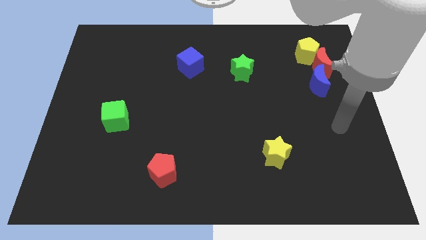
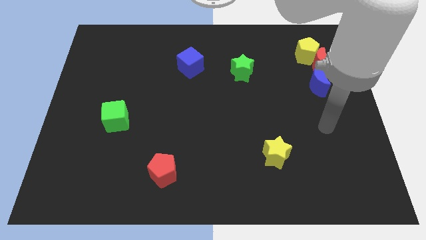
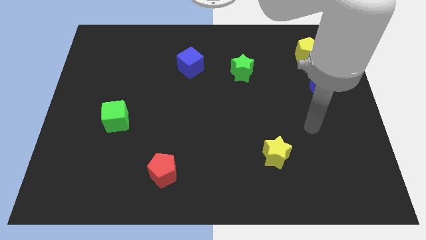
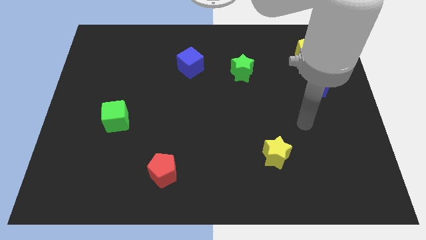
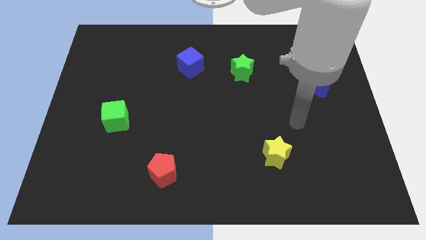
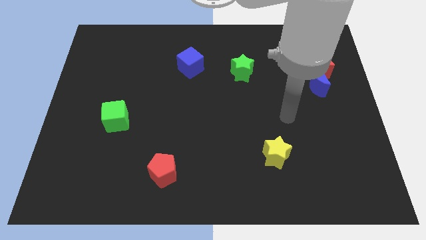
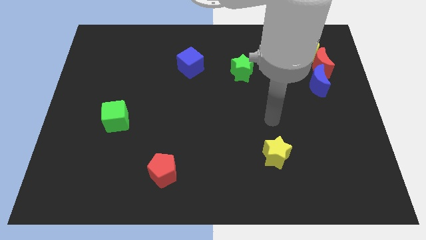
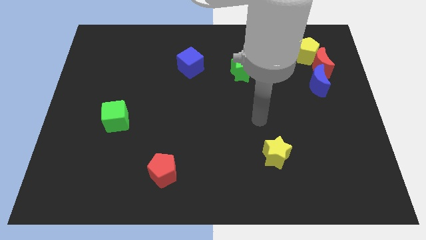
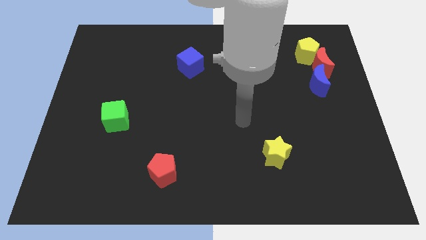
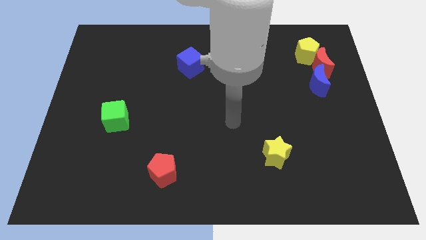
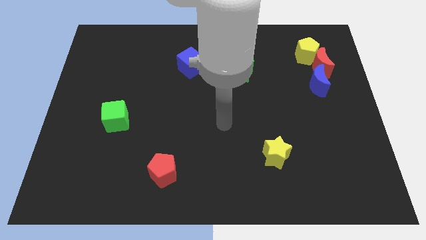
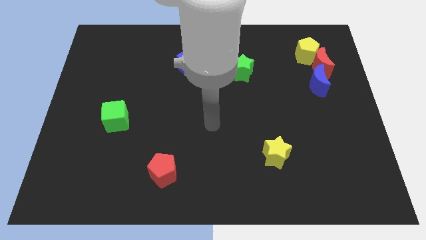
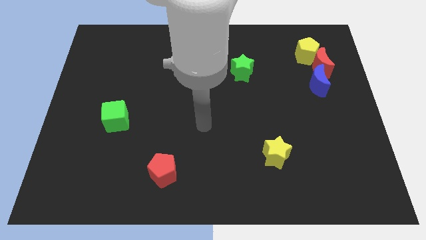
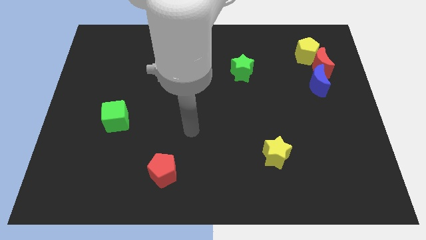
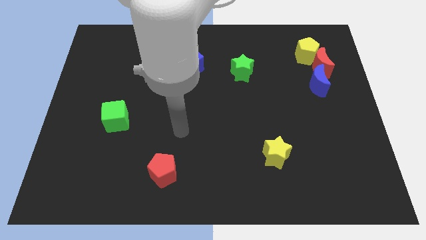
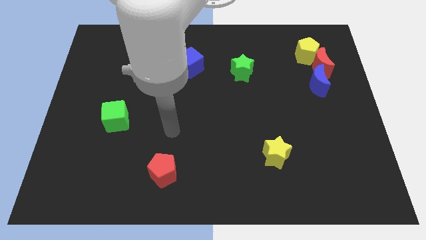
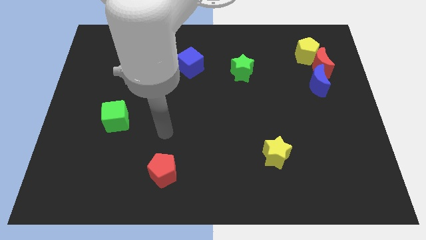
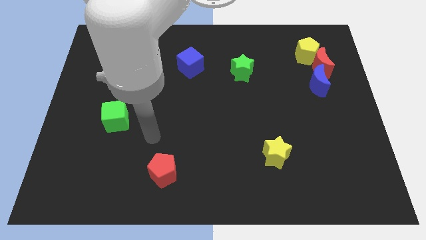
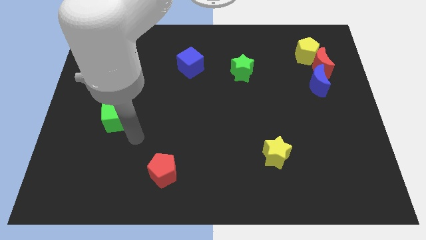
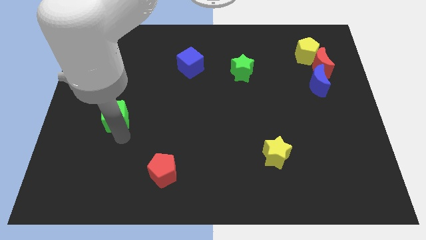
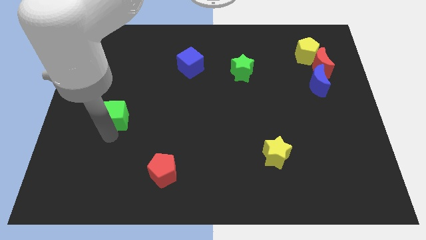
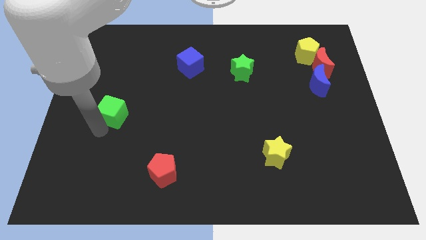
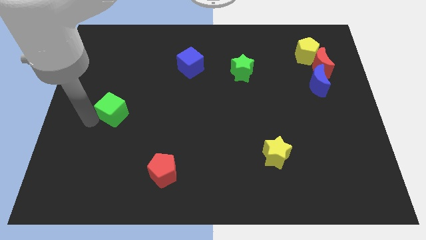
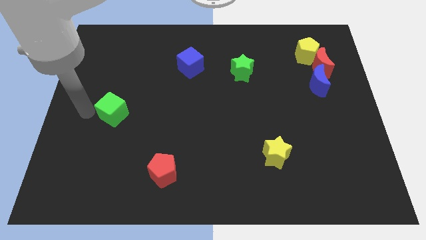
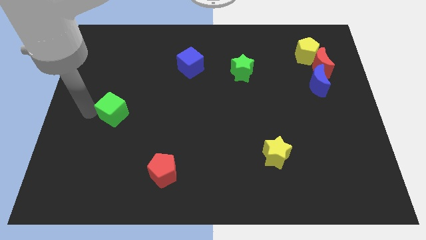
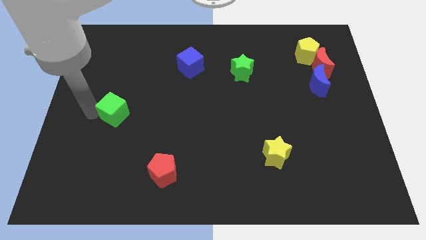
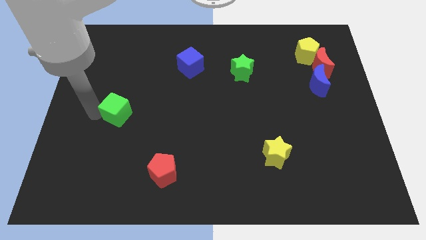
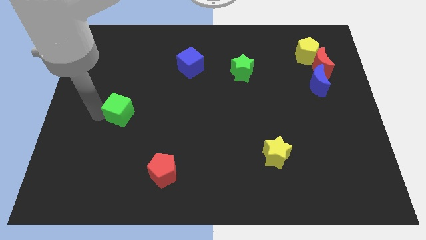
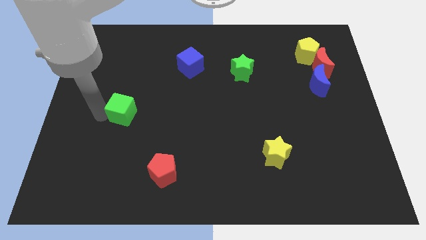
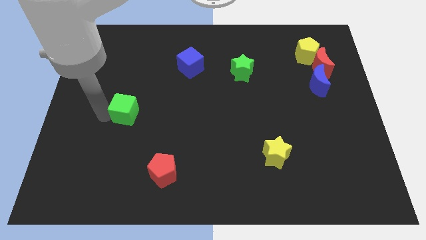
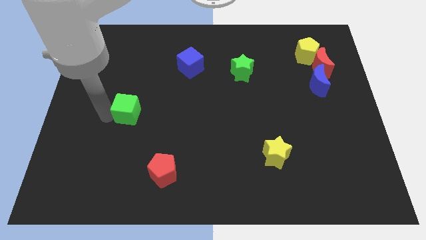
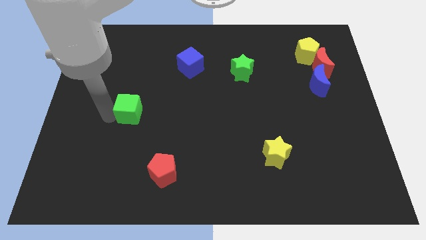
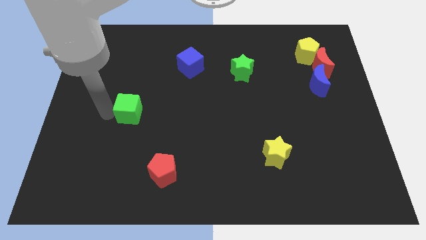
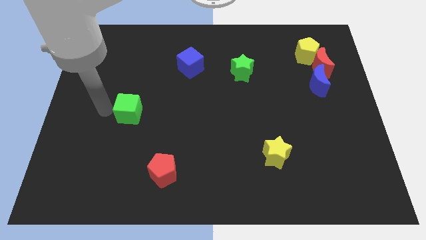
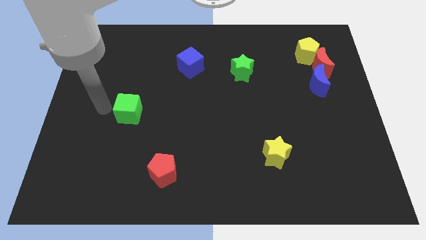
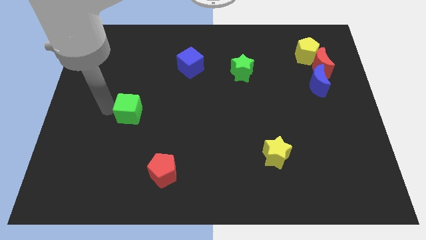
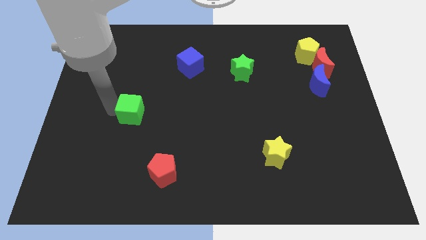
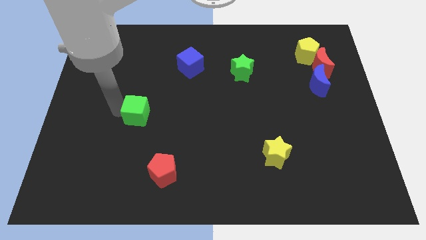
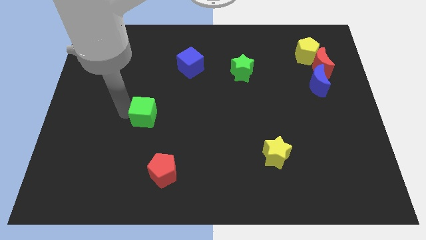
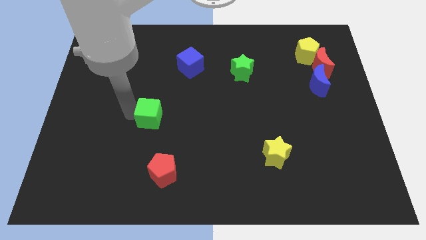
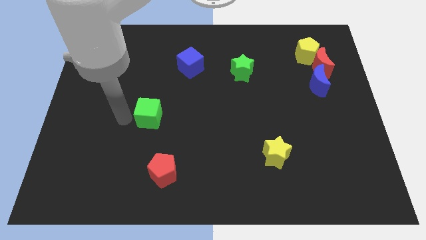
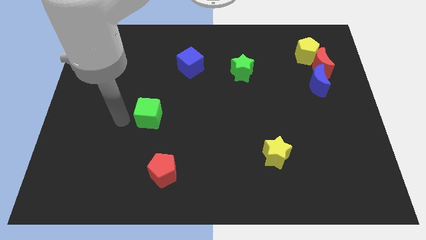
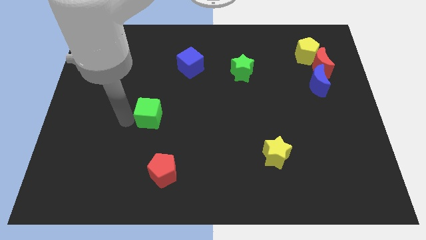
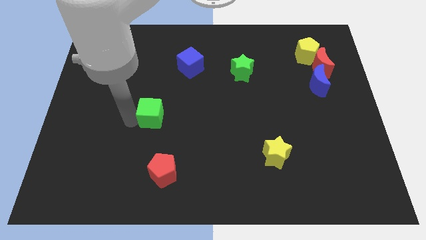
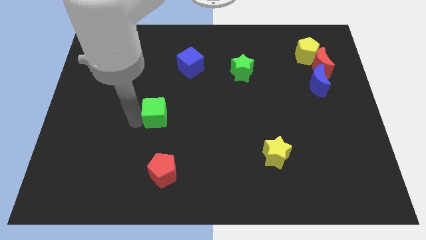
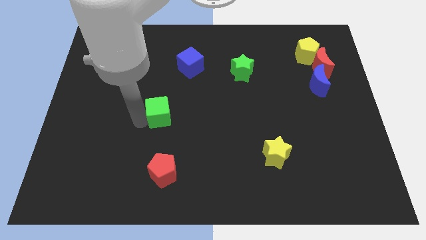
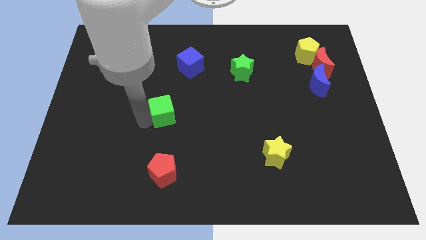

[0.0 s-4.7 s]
slide the green cube to the center of the board

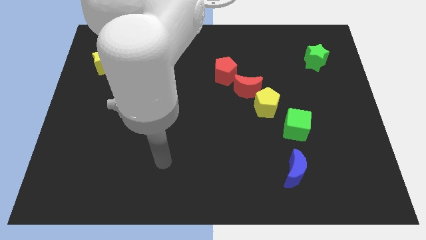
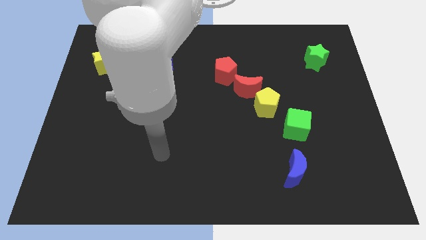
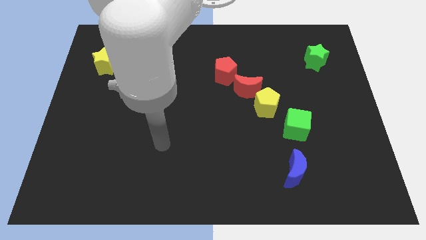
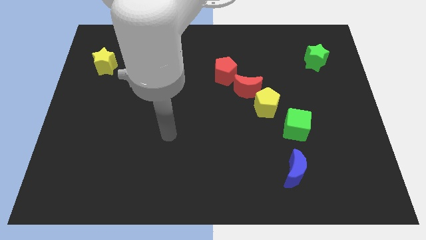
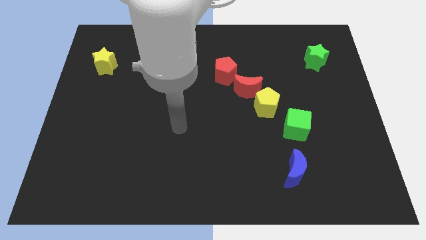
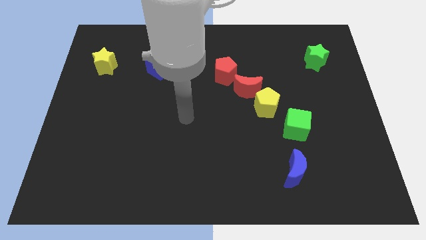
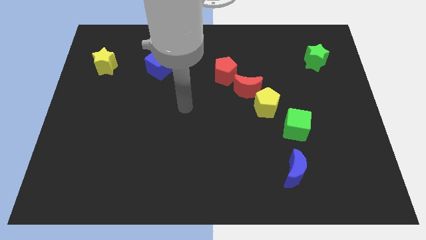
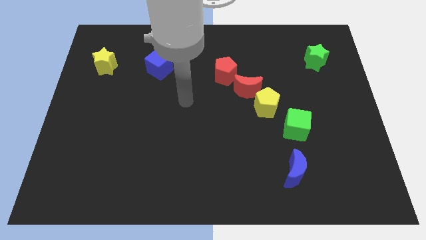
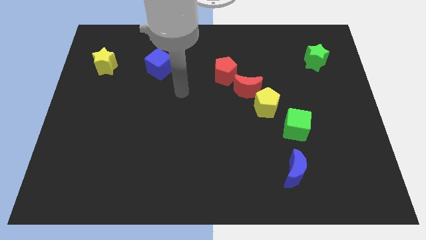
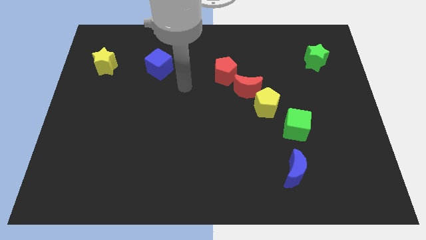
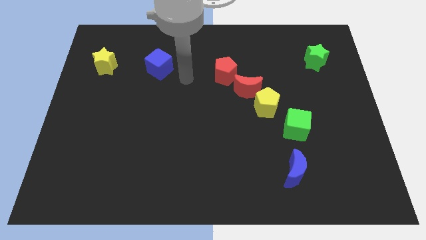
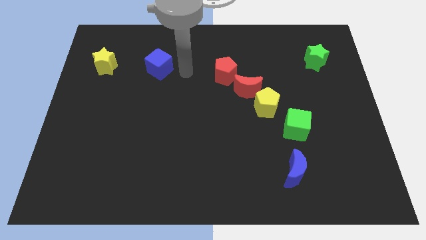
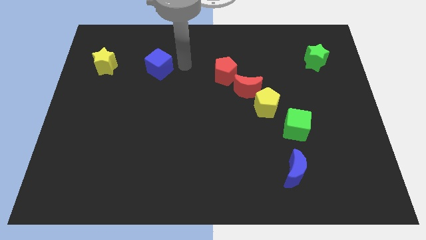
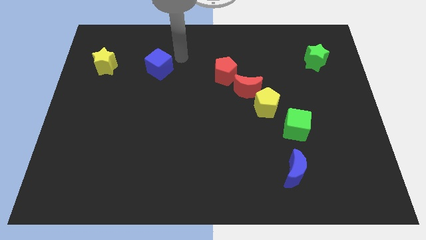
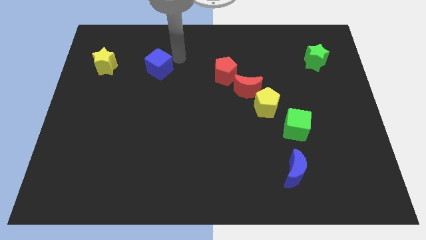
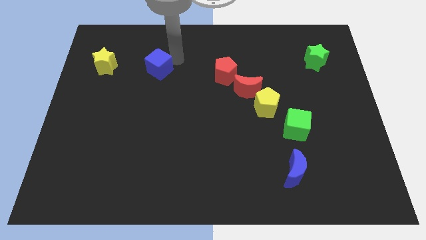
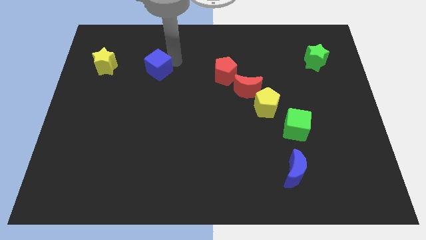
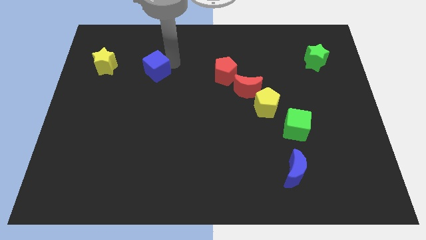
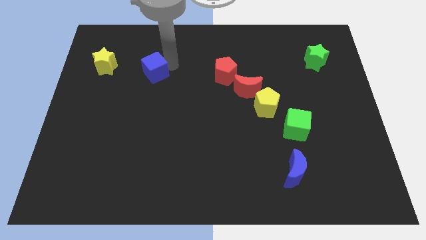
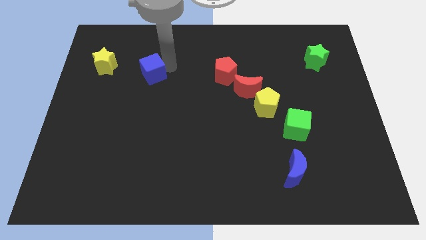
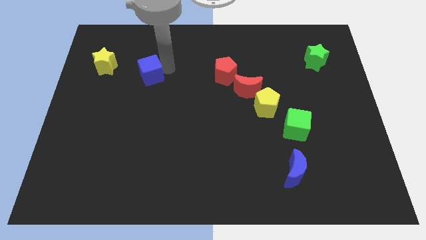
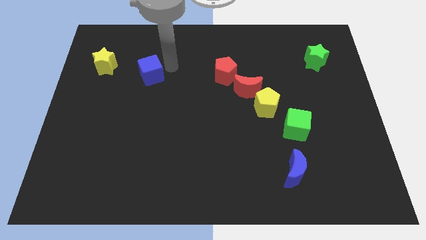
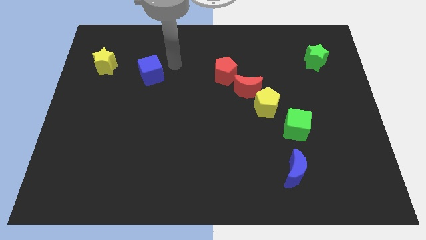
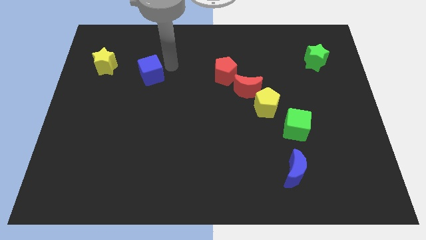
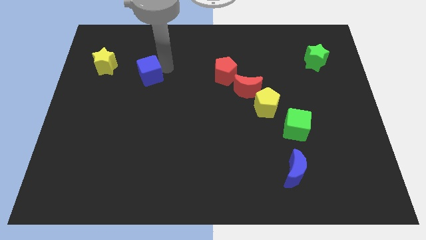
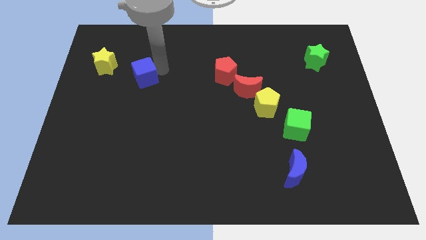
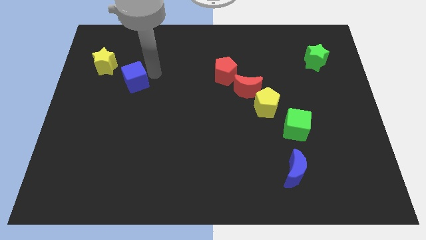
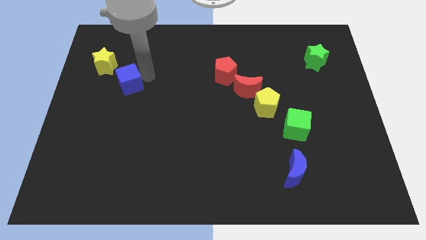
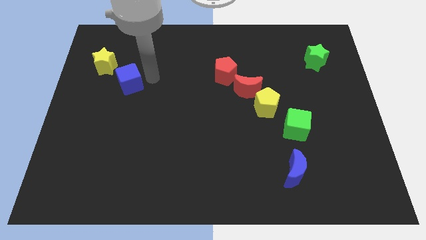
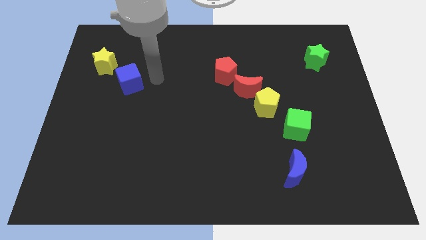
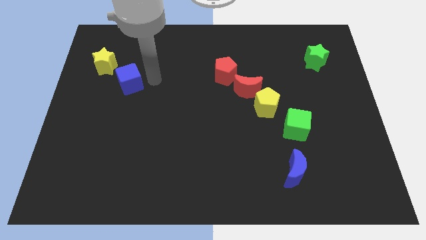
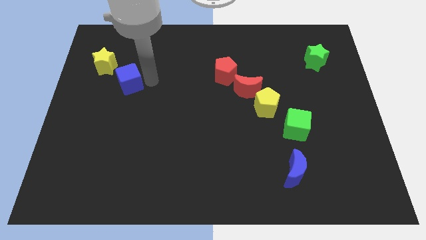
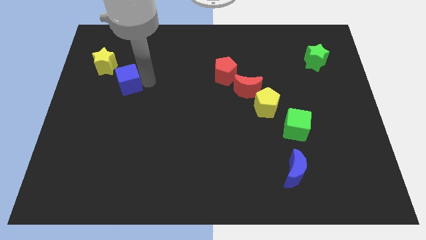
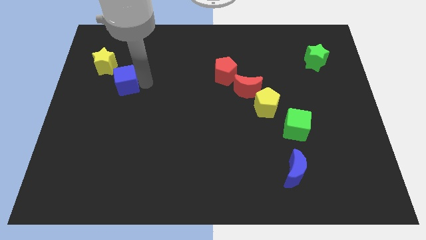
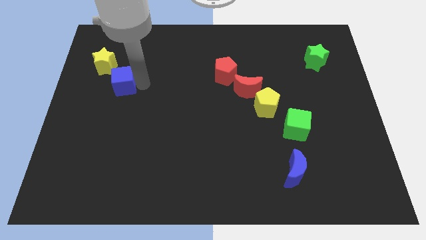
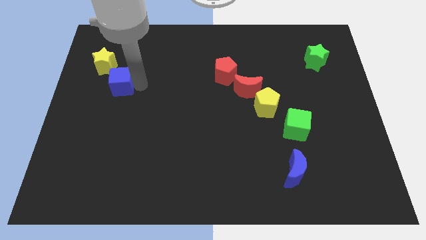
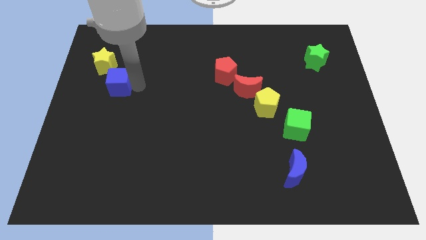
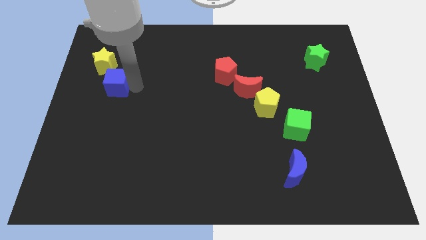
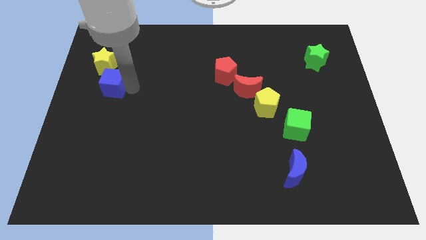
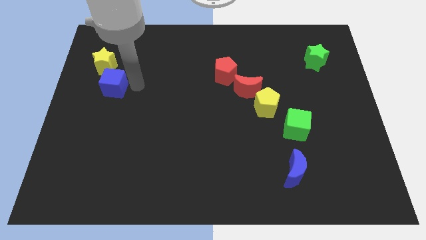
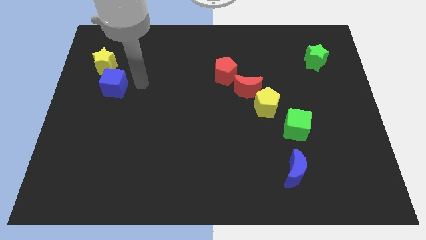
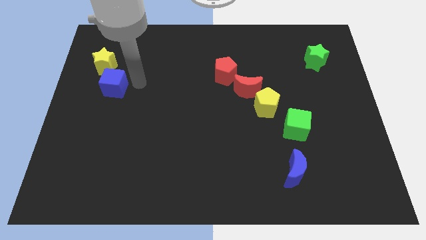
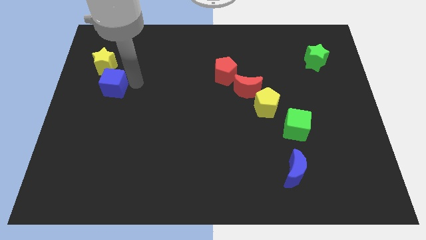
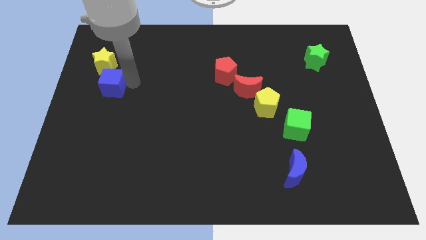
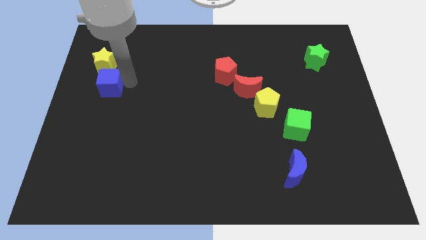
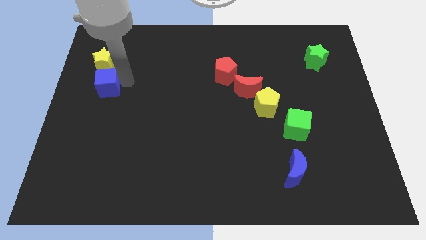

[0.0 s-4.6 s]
move the blue cube to the left side
